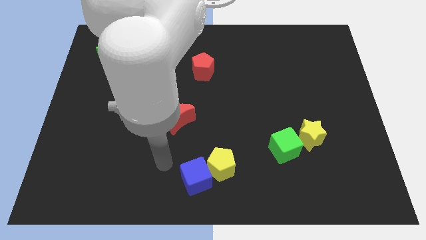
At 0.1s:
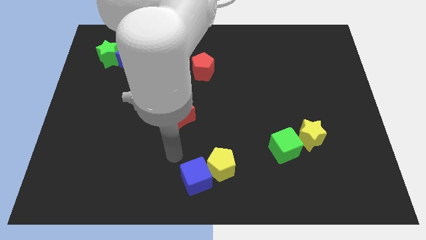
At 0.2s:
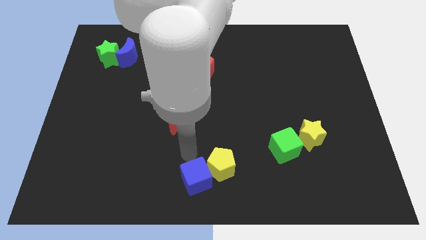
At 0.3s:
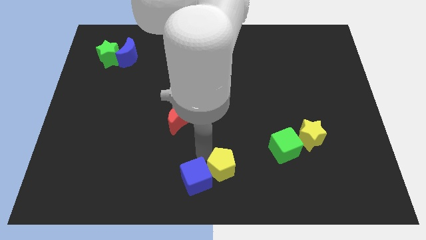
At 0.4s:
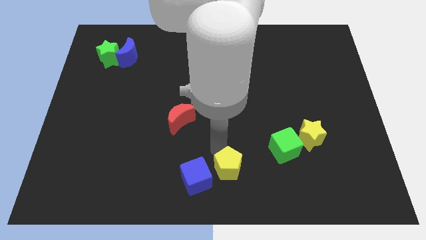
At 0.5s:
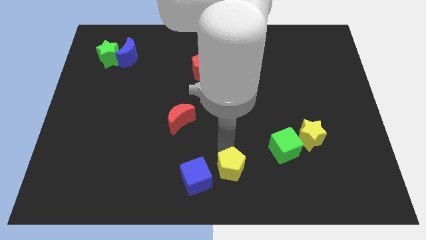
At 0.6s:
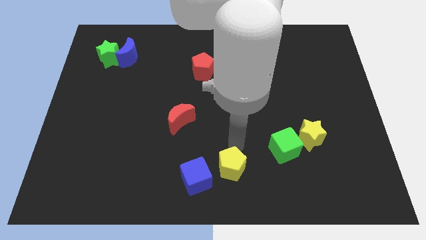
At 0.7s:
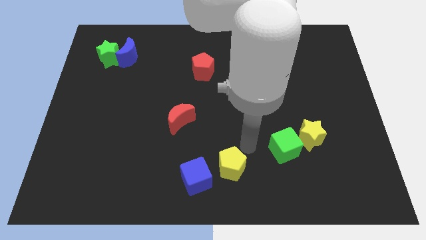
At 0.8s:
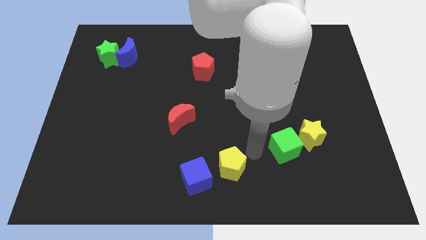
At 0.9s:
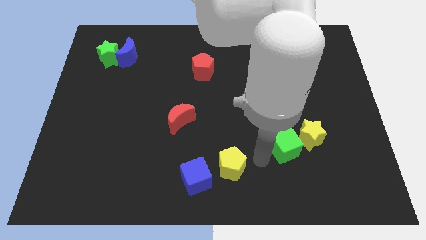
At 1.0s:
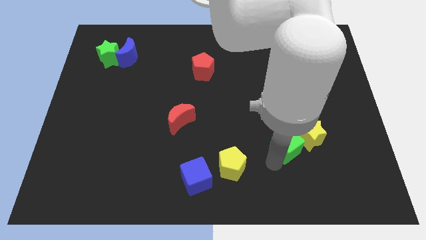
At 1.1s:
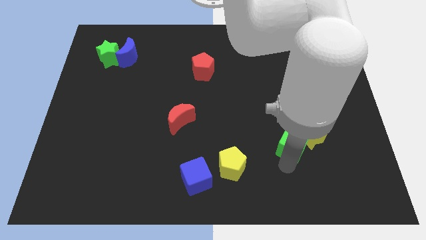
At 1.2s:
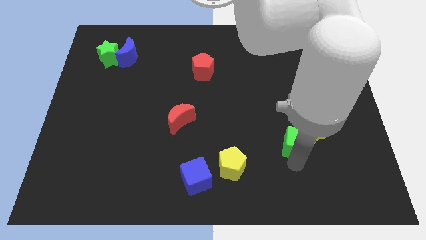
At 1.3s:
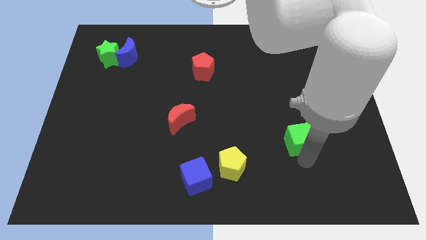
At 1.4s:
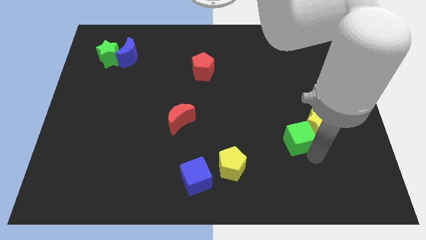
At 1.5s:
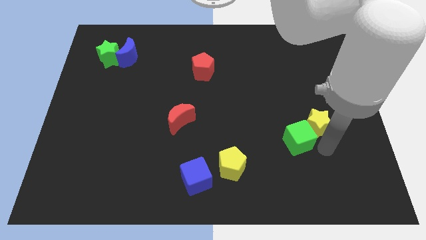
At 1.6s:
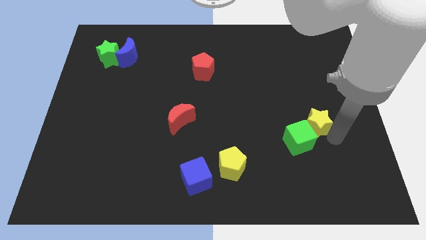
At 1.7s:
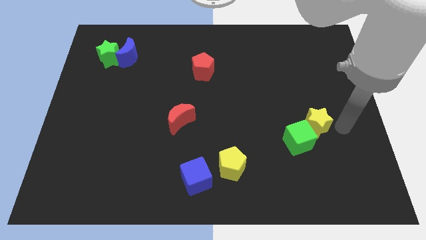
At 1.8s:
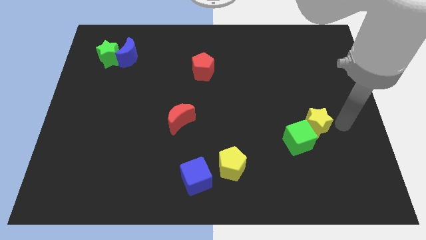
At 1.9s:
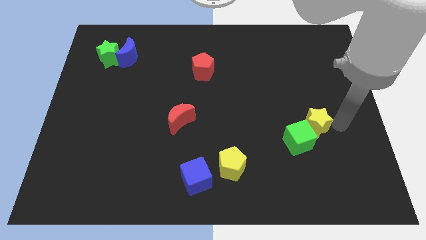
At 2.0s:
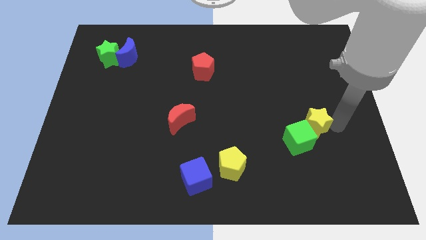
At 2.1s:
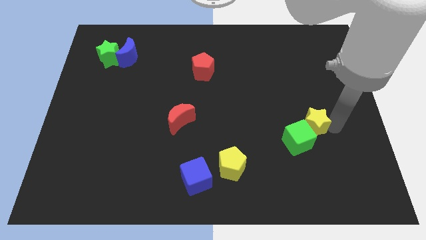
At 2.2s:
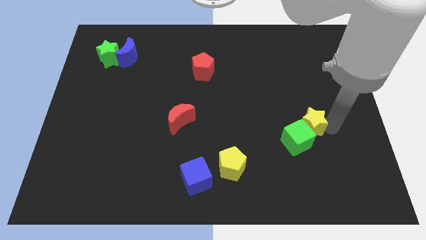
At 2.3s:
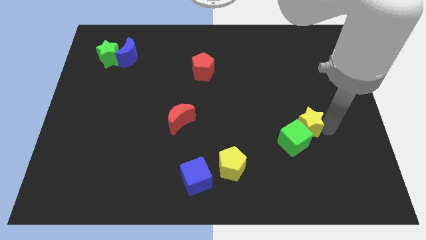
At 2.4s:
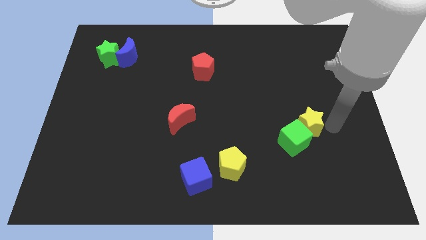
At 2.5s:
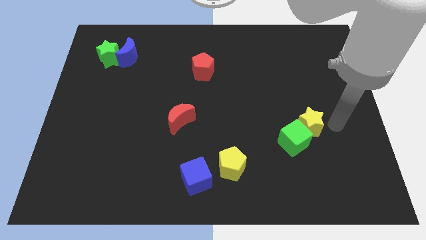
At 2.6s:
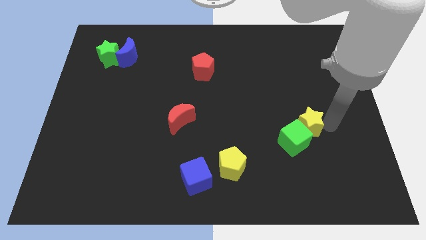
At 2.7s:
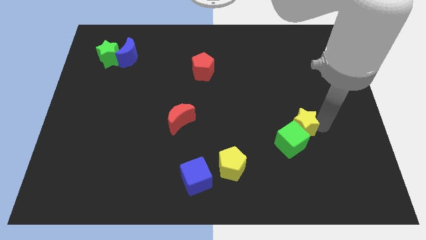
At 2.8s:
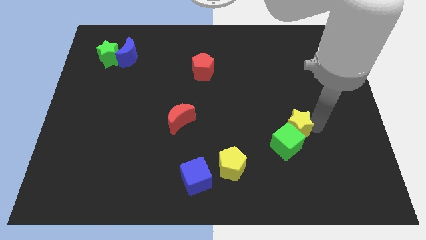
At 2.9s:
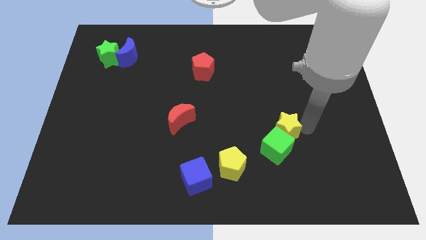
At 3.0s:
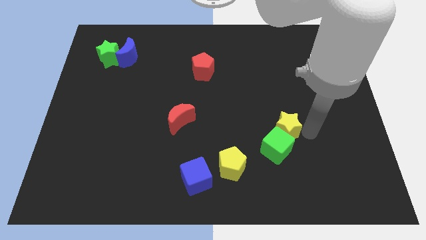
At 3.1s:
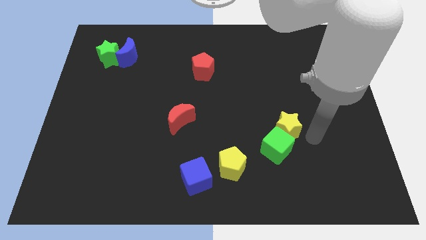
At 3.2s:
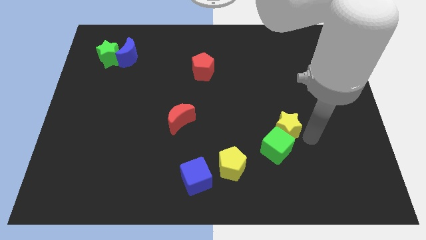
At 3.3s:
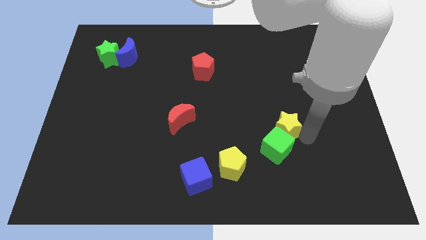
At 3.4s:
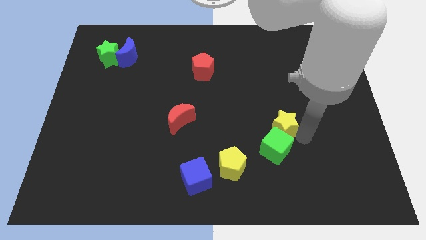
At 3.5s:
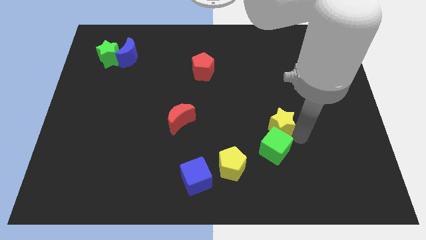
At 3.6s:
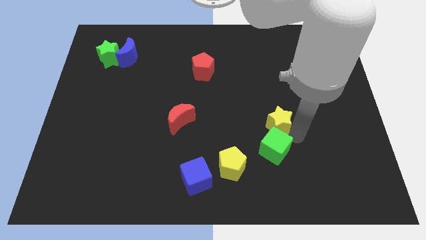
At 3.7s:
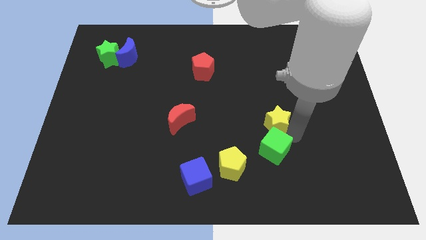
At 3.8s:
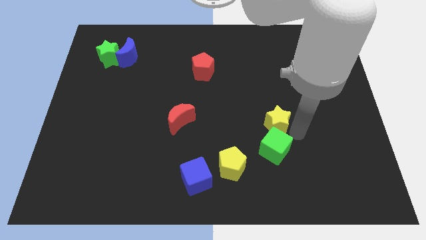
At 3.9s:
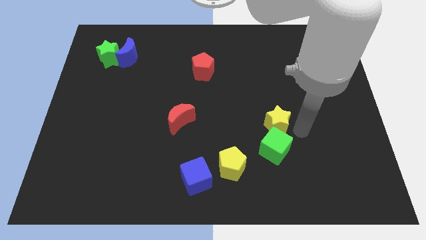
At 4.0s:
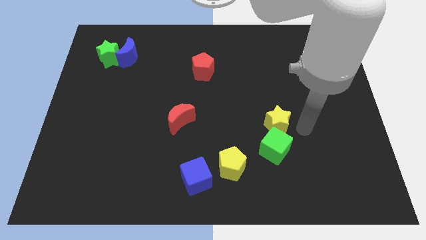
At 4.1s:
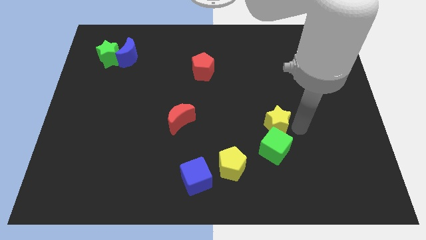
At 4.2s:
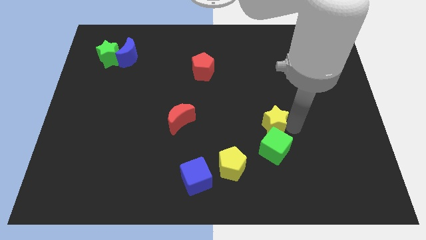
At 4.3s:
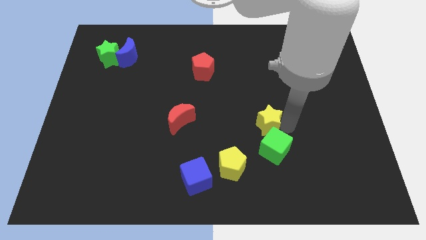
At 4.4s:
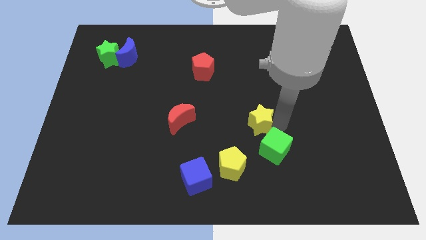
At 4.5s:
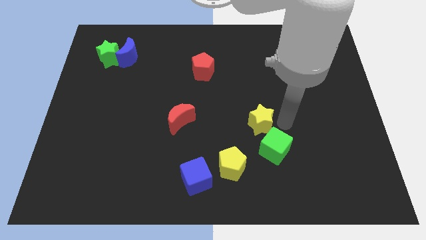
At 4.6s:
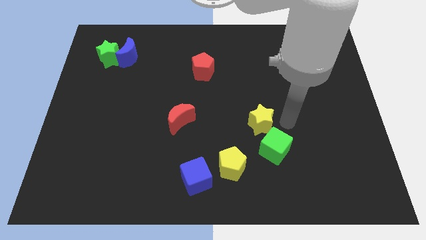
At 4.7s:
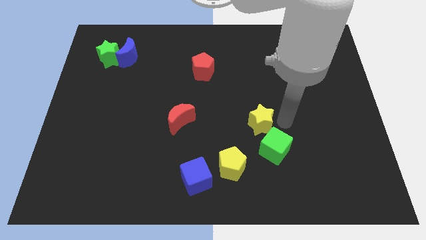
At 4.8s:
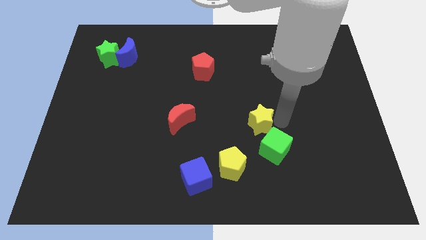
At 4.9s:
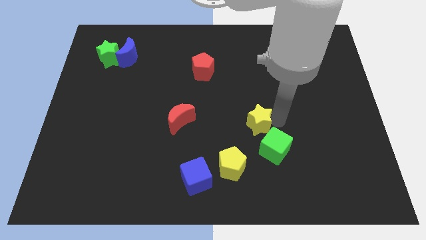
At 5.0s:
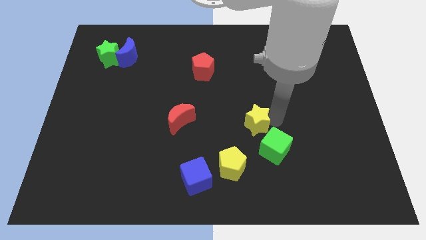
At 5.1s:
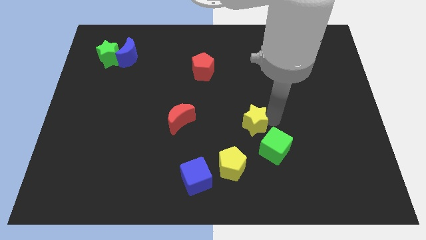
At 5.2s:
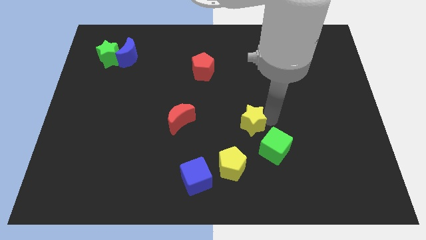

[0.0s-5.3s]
put the yellow star above the yellow pentagon

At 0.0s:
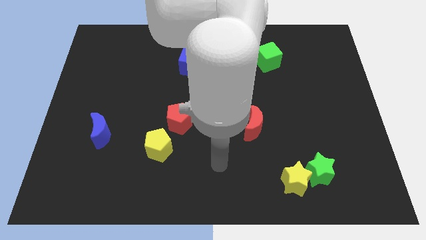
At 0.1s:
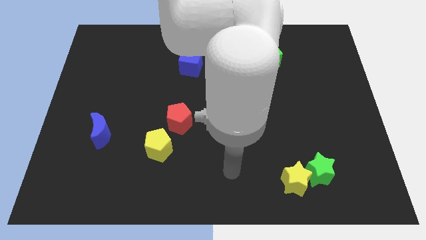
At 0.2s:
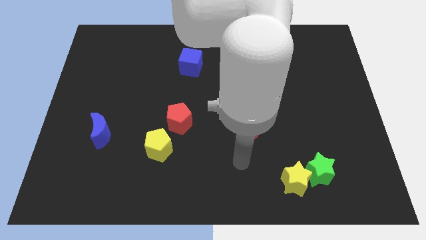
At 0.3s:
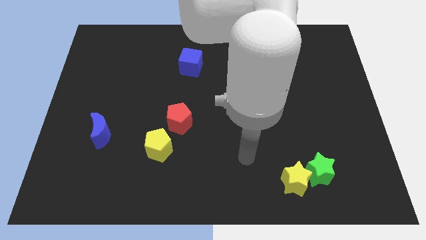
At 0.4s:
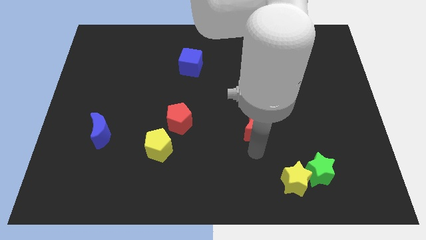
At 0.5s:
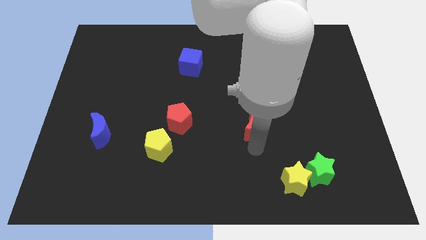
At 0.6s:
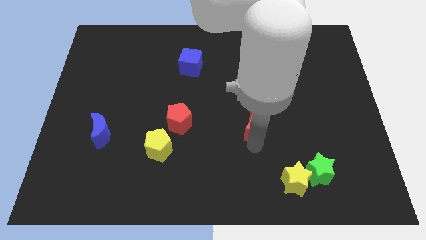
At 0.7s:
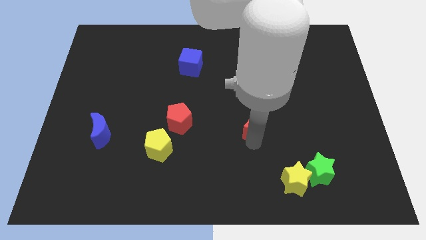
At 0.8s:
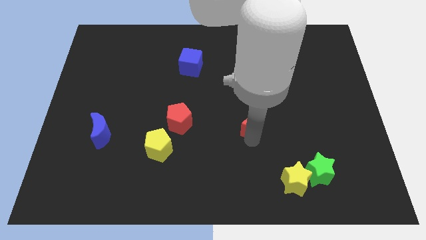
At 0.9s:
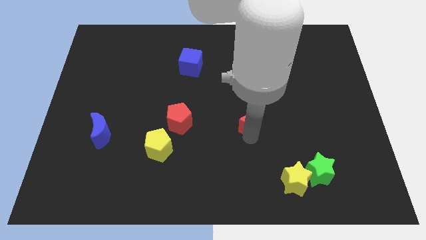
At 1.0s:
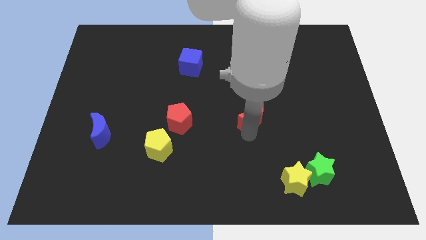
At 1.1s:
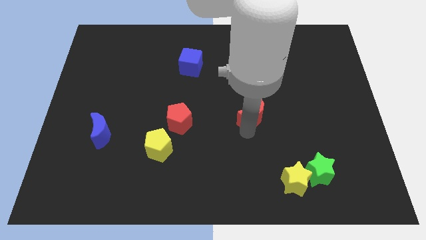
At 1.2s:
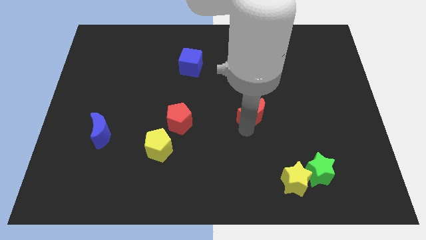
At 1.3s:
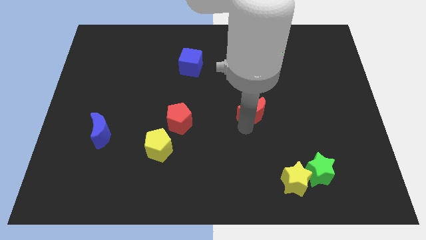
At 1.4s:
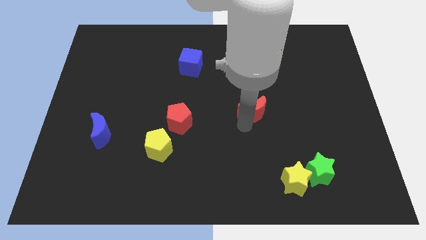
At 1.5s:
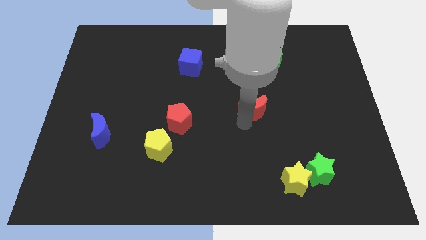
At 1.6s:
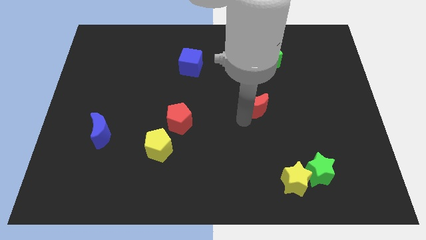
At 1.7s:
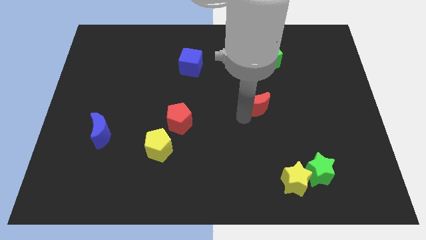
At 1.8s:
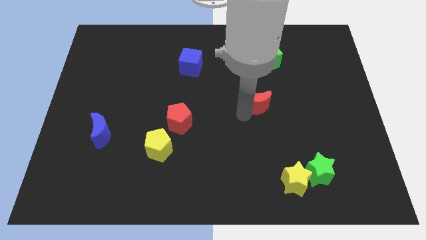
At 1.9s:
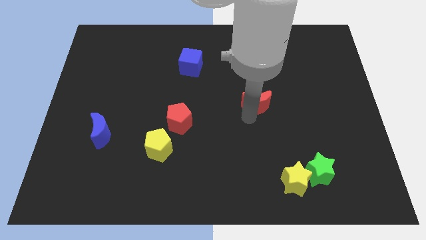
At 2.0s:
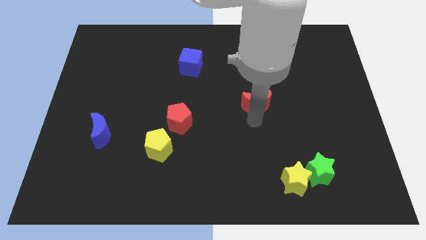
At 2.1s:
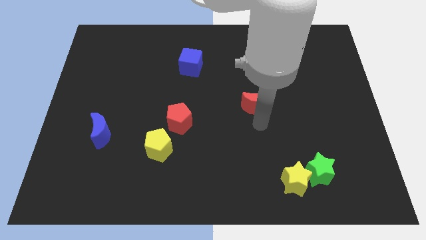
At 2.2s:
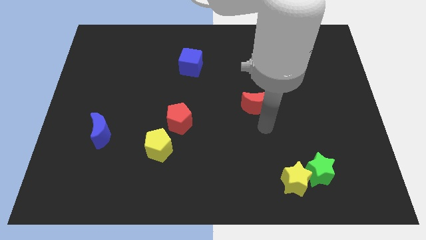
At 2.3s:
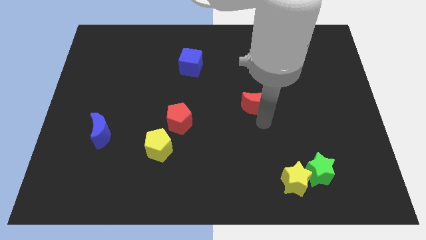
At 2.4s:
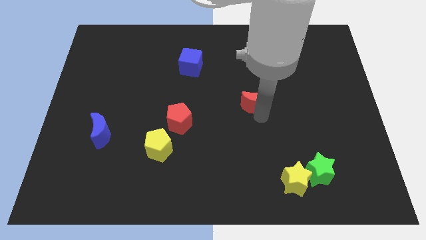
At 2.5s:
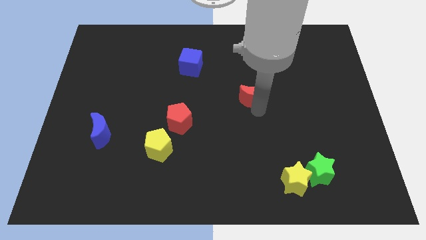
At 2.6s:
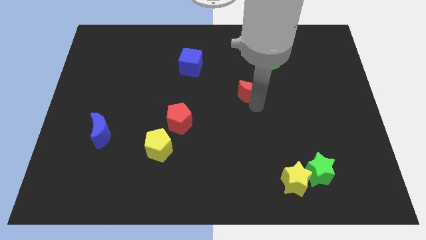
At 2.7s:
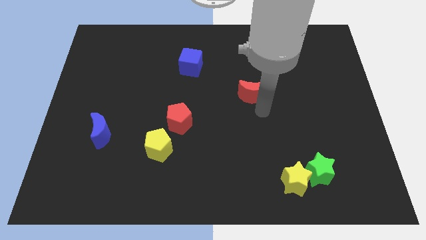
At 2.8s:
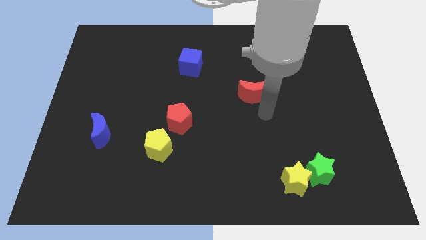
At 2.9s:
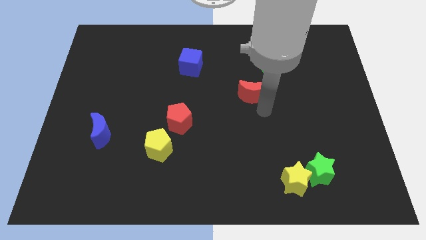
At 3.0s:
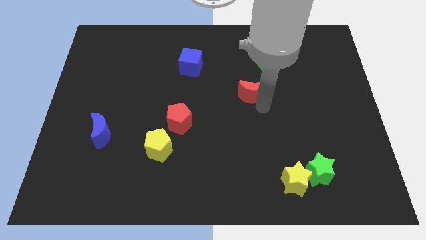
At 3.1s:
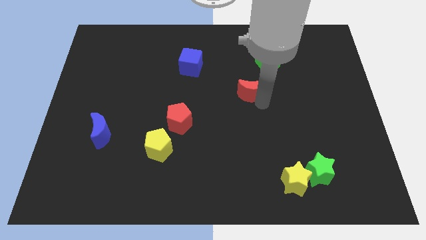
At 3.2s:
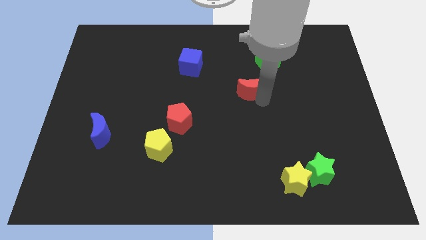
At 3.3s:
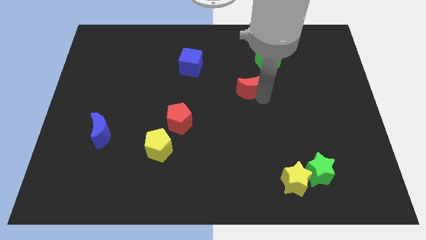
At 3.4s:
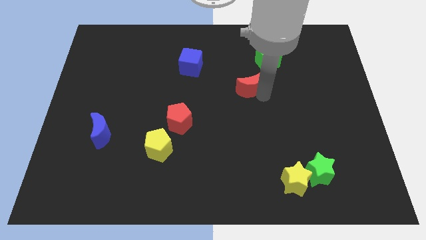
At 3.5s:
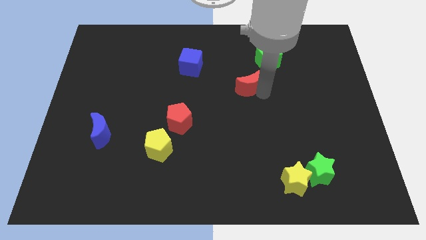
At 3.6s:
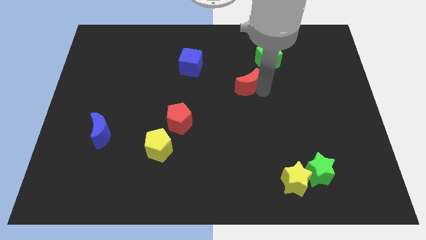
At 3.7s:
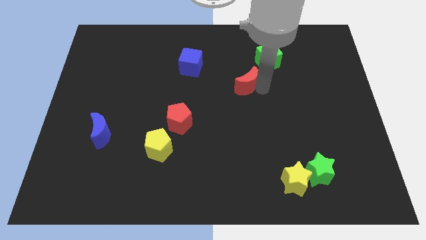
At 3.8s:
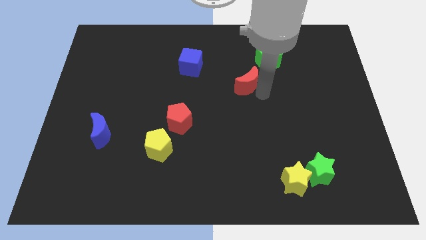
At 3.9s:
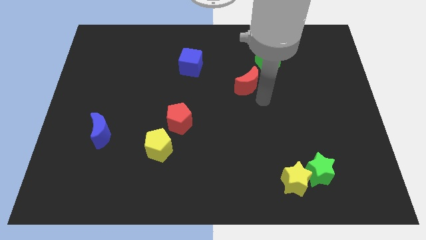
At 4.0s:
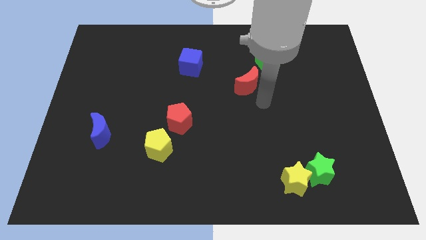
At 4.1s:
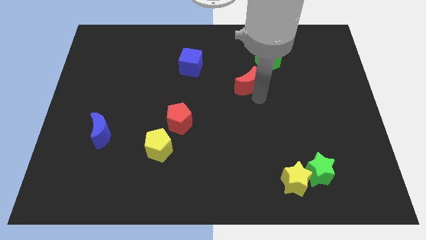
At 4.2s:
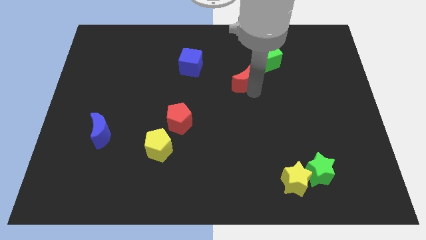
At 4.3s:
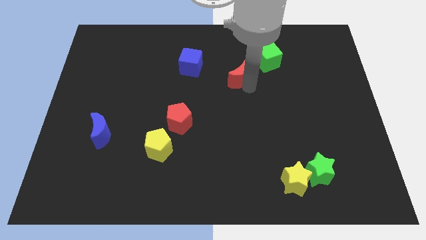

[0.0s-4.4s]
slide the red moon to the right side of the blue cube
